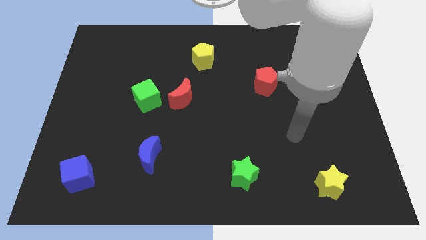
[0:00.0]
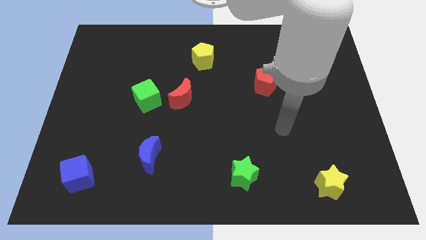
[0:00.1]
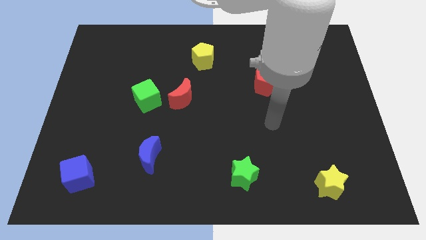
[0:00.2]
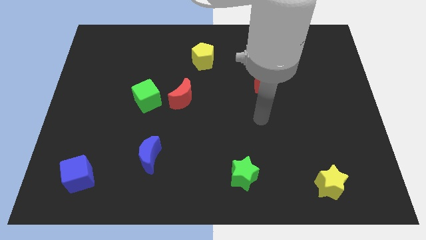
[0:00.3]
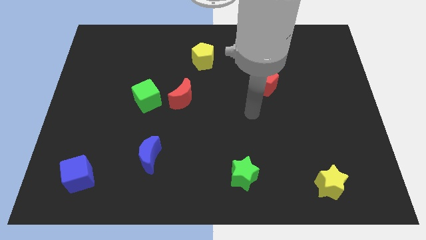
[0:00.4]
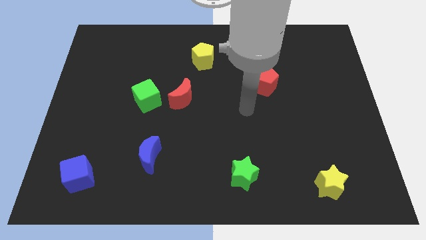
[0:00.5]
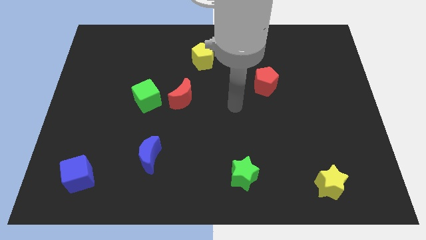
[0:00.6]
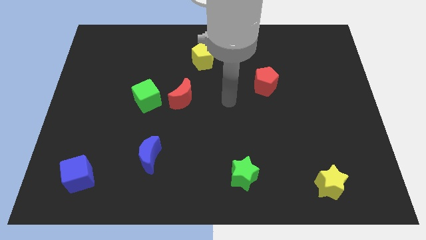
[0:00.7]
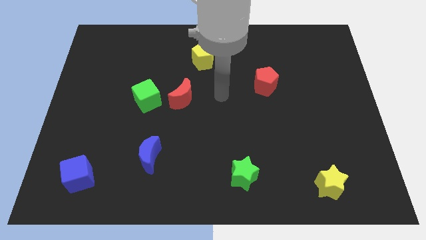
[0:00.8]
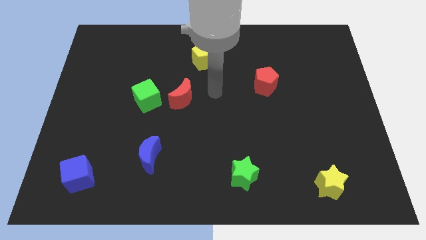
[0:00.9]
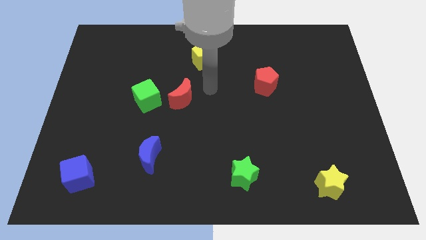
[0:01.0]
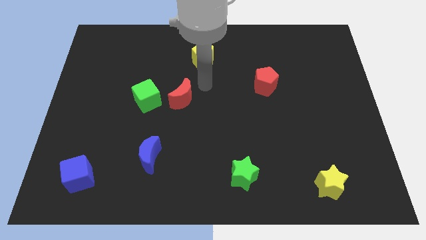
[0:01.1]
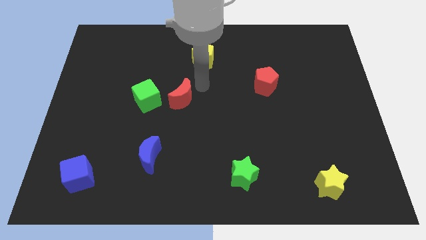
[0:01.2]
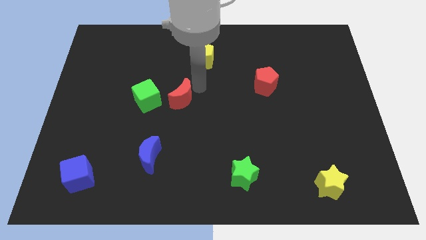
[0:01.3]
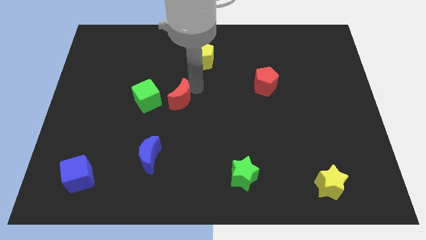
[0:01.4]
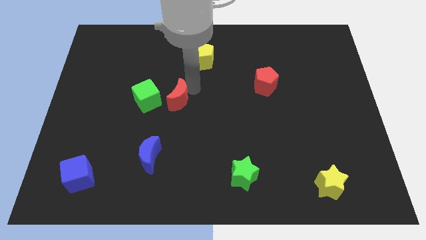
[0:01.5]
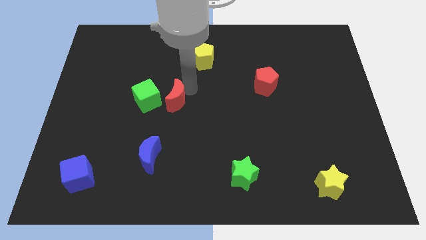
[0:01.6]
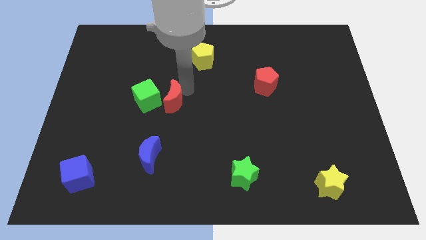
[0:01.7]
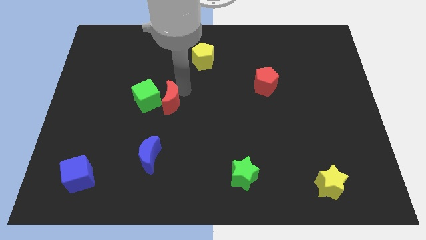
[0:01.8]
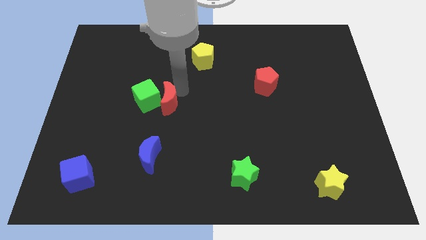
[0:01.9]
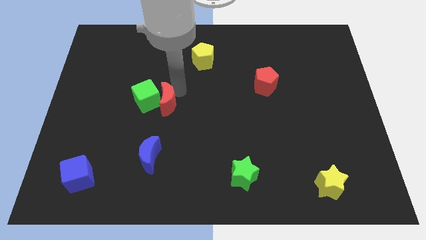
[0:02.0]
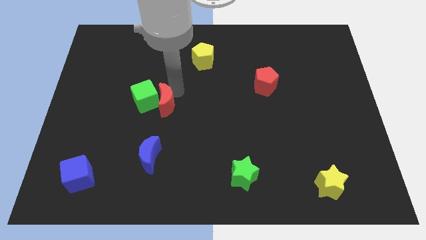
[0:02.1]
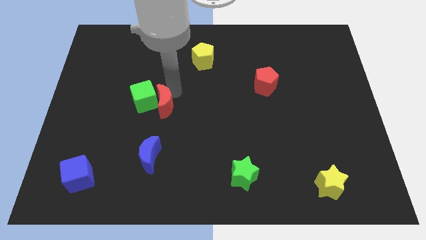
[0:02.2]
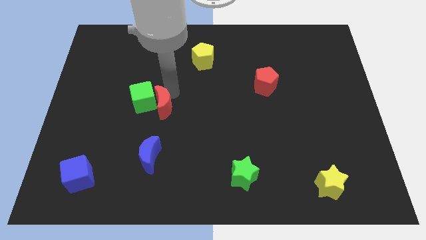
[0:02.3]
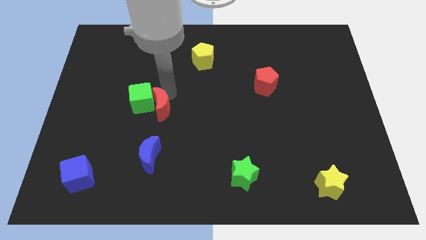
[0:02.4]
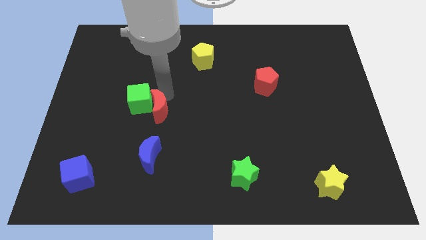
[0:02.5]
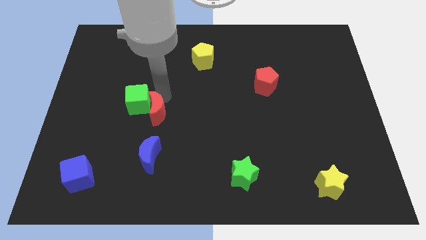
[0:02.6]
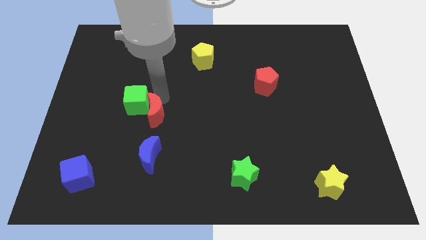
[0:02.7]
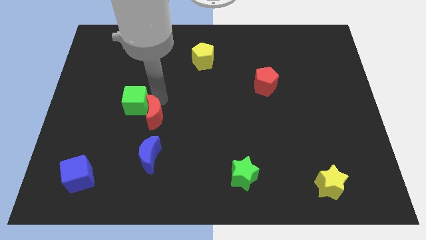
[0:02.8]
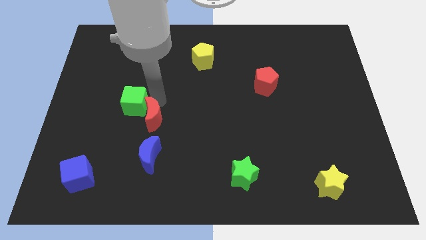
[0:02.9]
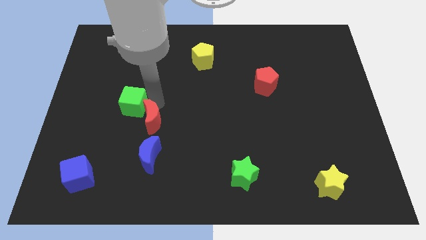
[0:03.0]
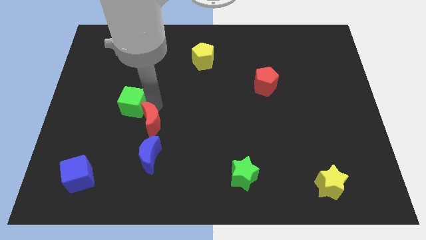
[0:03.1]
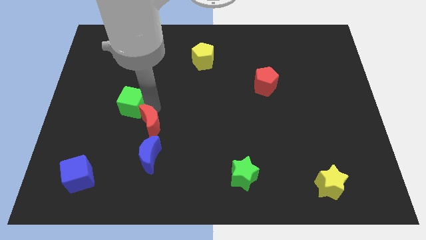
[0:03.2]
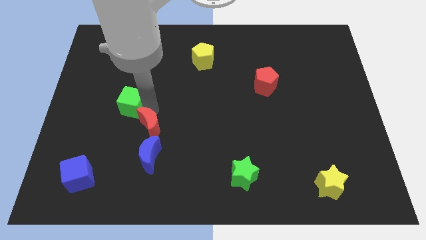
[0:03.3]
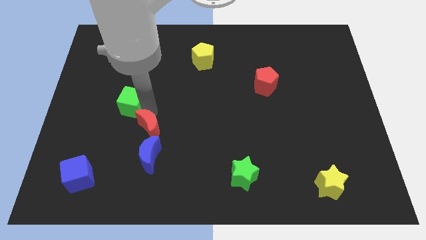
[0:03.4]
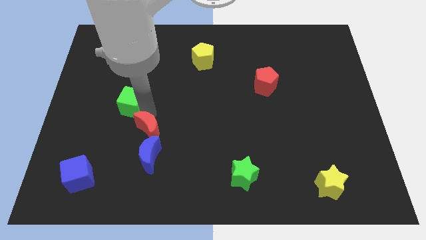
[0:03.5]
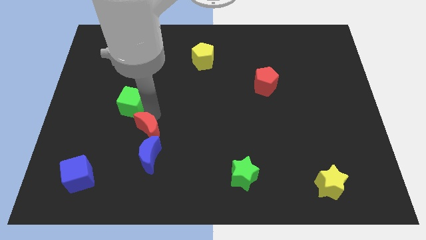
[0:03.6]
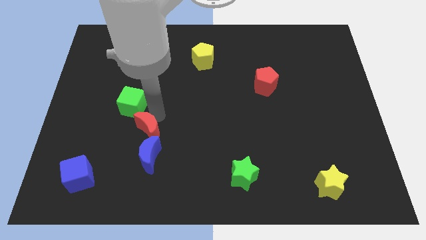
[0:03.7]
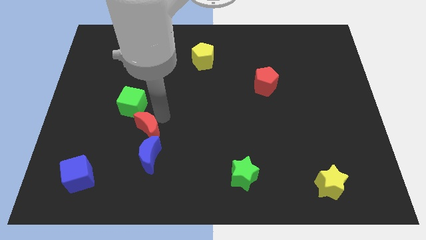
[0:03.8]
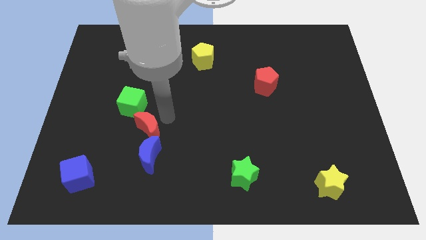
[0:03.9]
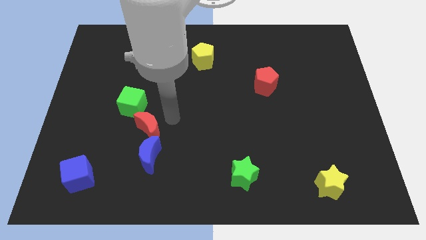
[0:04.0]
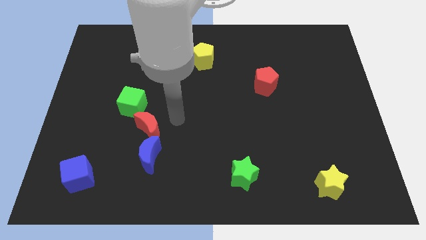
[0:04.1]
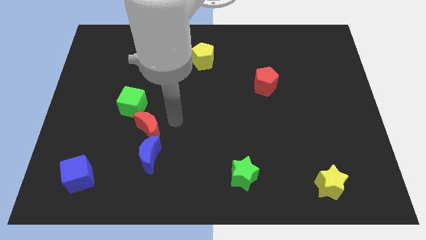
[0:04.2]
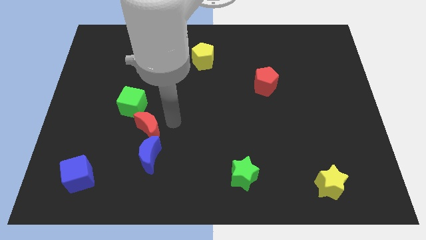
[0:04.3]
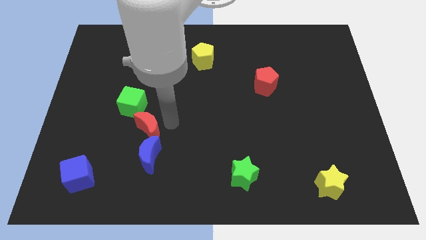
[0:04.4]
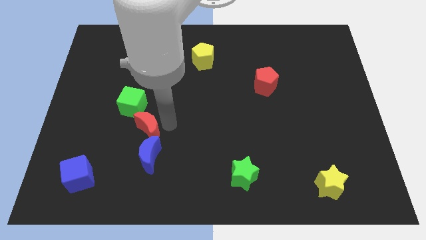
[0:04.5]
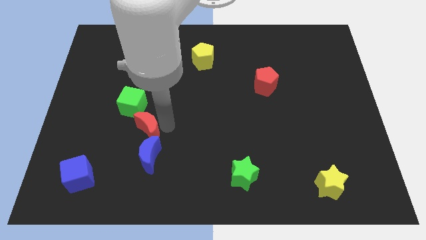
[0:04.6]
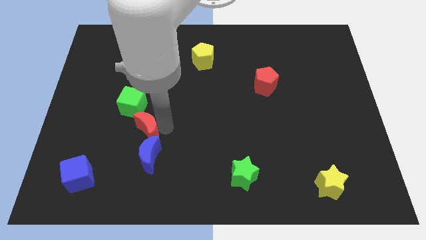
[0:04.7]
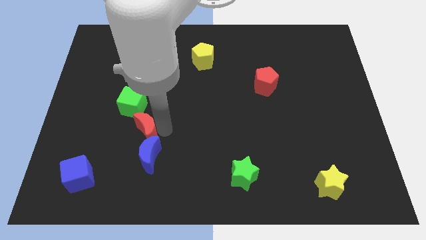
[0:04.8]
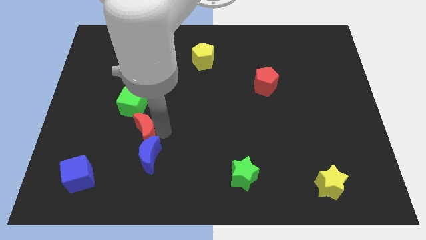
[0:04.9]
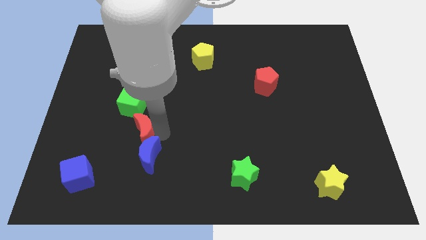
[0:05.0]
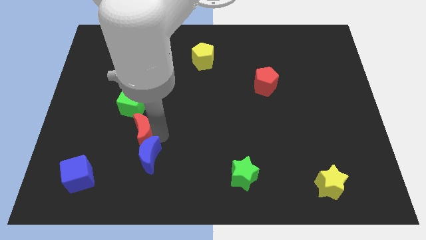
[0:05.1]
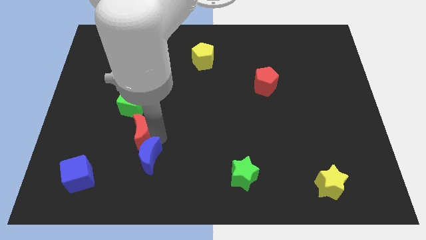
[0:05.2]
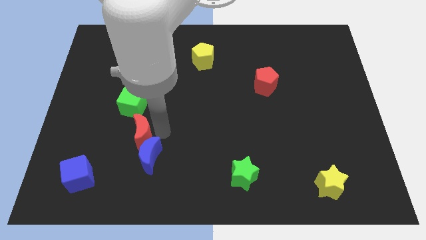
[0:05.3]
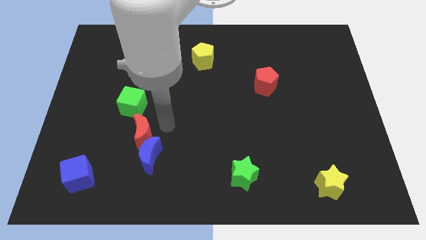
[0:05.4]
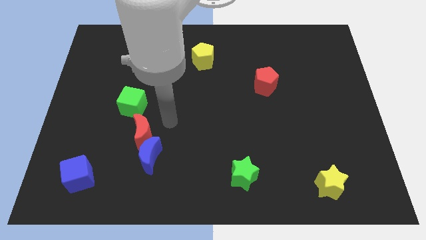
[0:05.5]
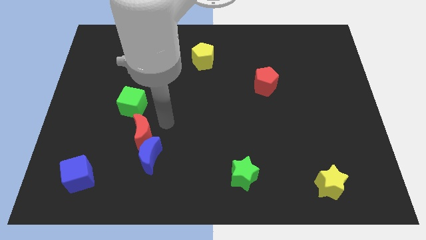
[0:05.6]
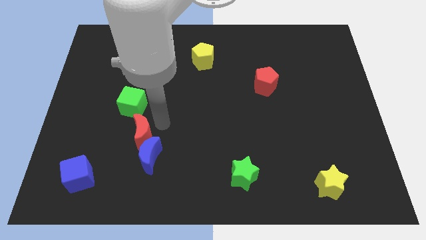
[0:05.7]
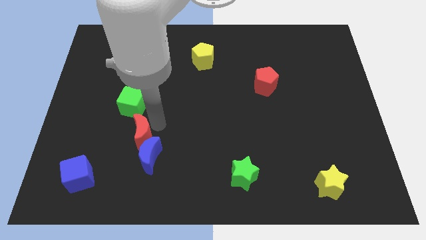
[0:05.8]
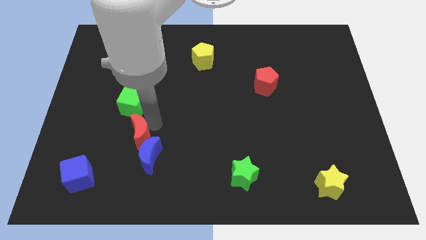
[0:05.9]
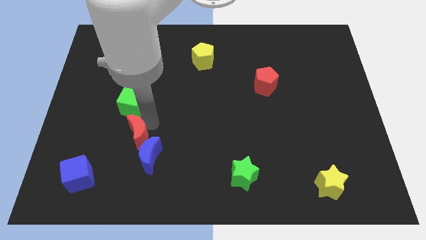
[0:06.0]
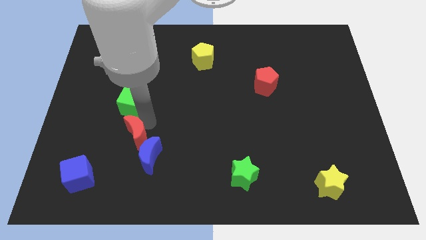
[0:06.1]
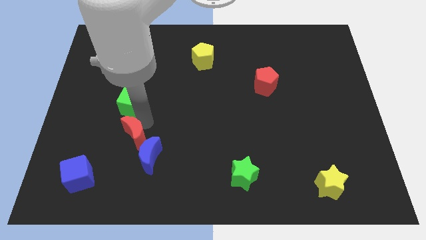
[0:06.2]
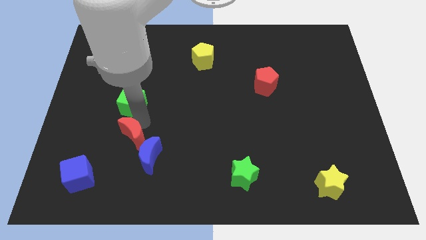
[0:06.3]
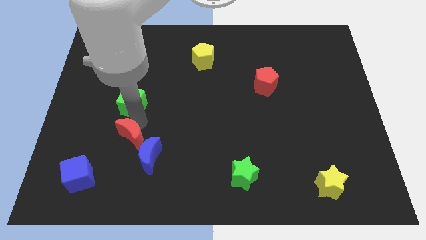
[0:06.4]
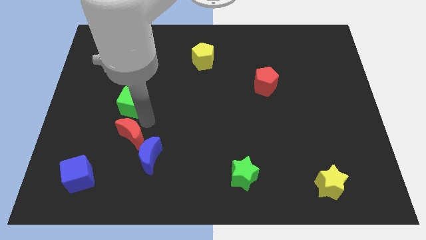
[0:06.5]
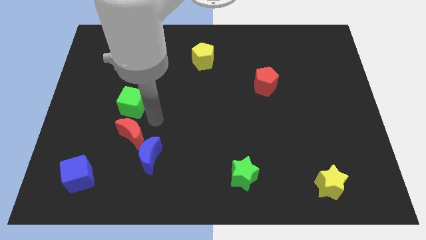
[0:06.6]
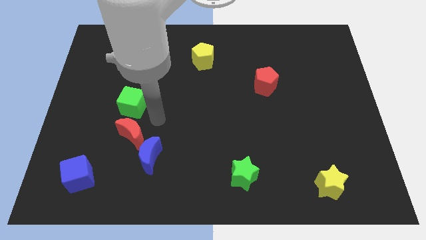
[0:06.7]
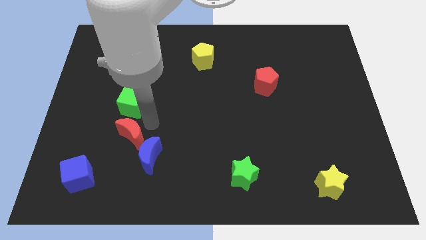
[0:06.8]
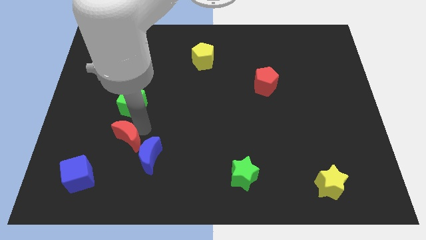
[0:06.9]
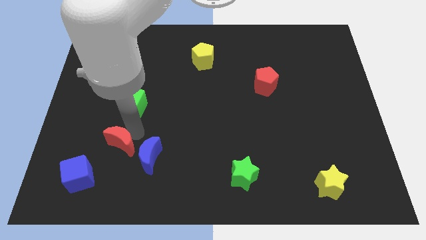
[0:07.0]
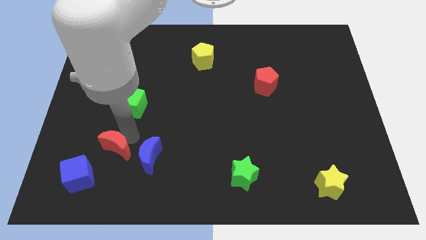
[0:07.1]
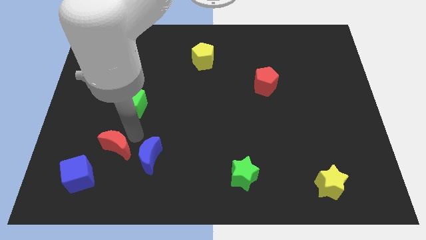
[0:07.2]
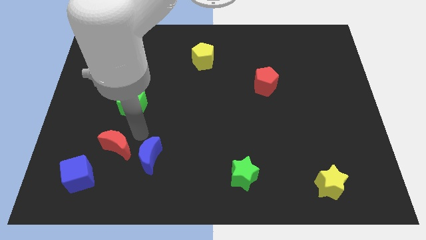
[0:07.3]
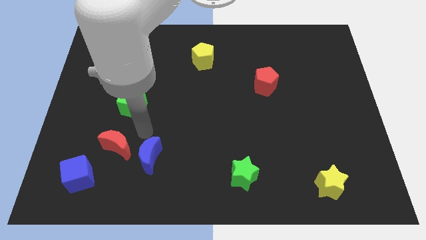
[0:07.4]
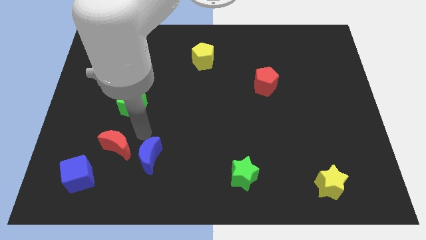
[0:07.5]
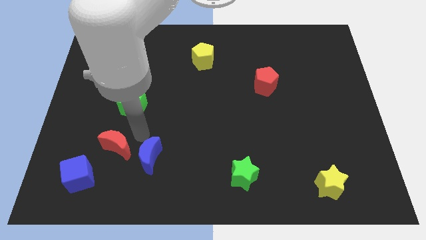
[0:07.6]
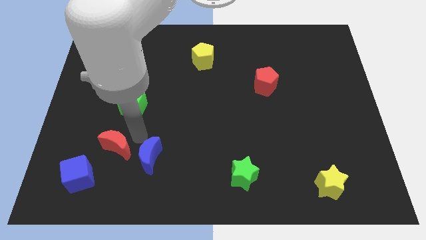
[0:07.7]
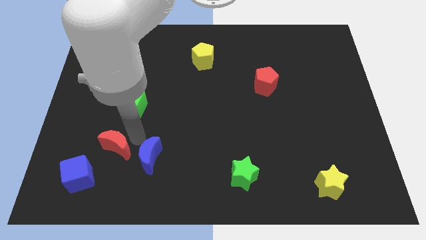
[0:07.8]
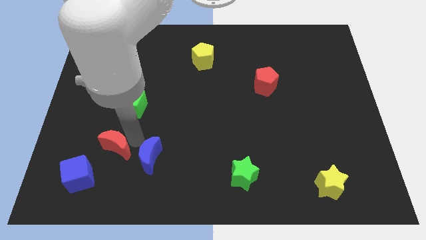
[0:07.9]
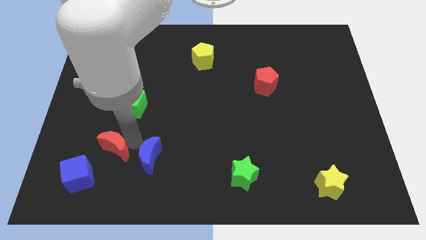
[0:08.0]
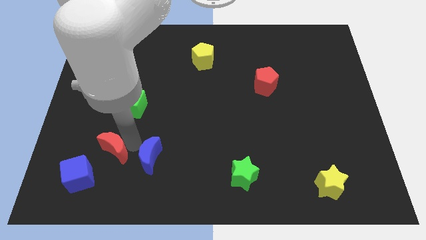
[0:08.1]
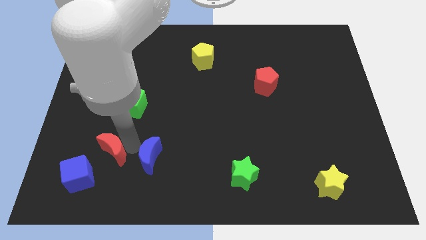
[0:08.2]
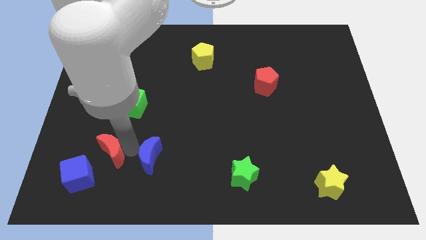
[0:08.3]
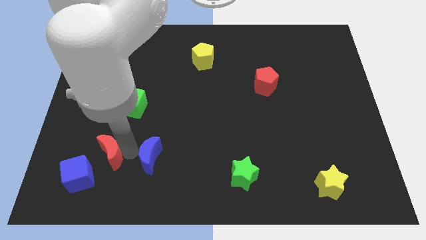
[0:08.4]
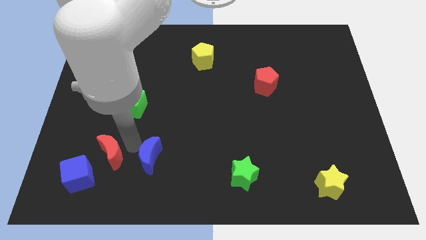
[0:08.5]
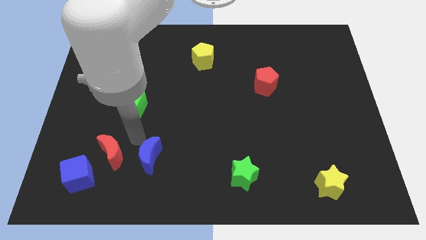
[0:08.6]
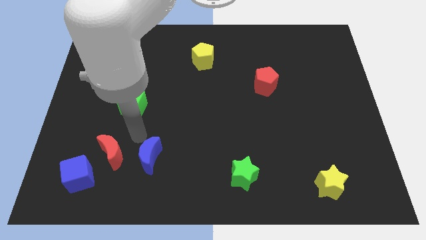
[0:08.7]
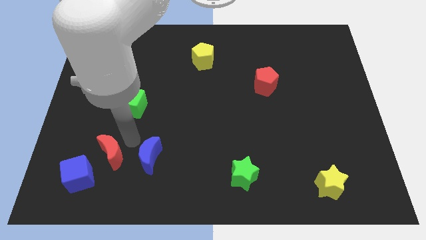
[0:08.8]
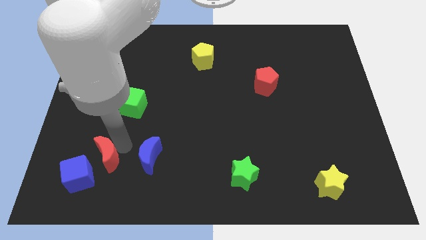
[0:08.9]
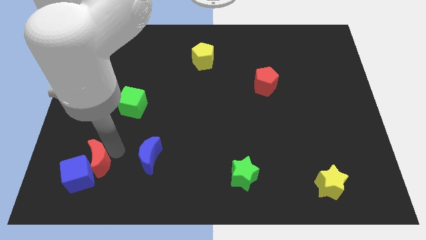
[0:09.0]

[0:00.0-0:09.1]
push the red moon towards the blue cube
